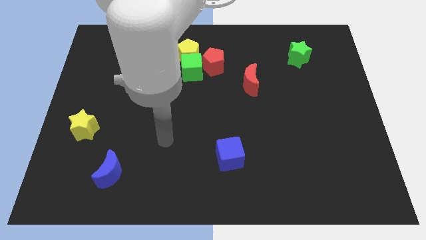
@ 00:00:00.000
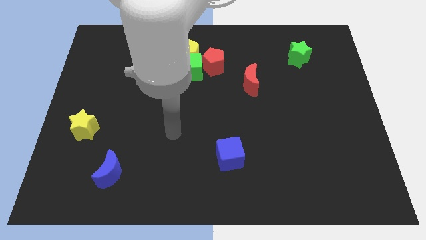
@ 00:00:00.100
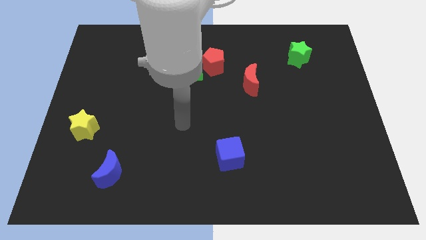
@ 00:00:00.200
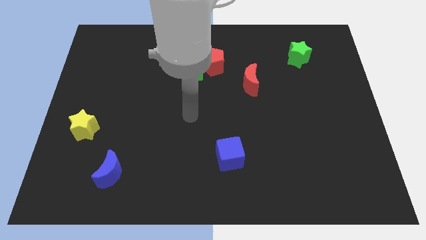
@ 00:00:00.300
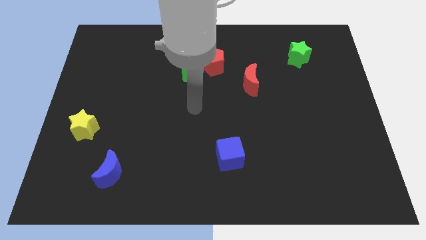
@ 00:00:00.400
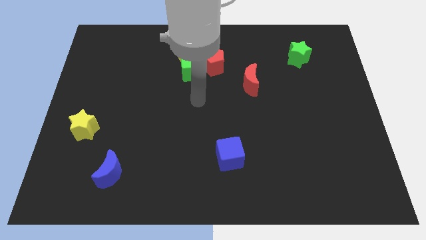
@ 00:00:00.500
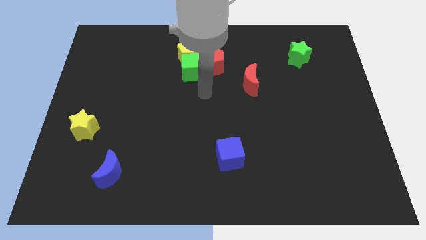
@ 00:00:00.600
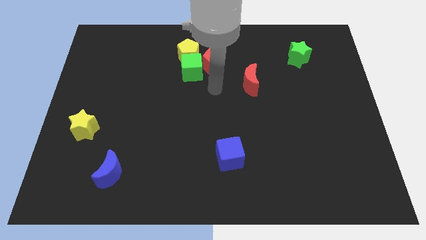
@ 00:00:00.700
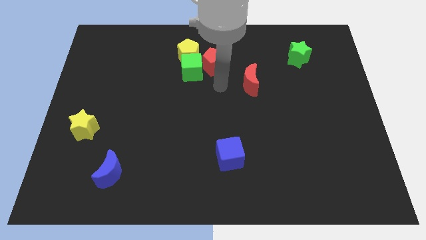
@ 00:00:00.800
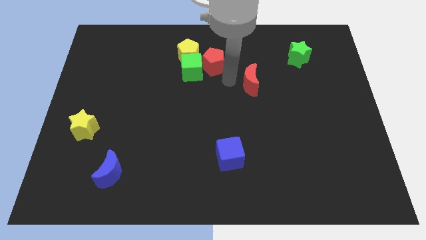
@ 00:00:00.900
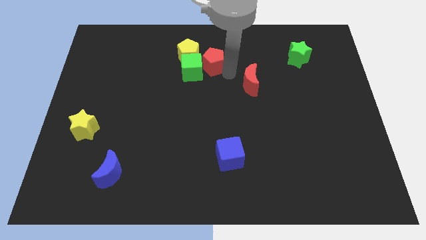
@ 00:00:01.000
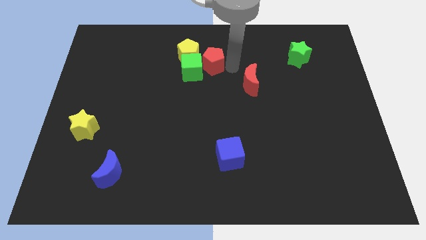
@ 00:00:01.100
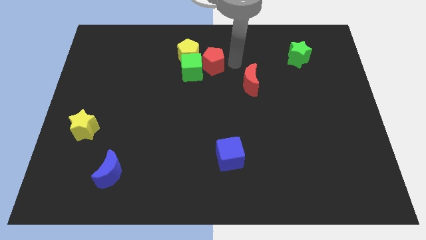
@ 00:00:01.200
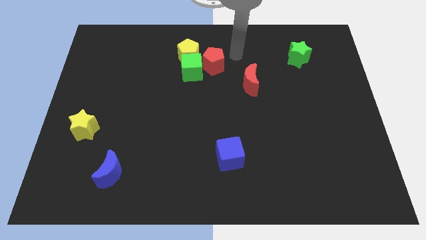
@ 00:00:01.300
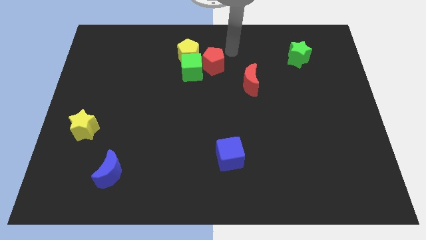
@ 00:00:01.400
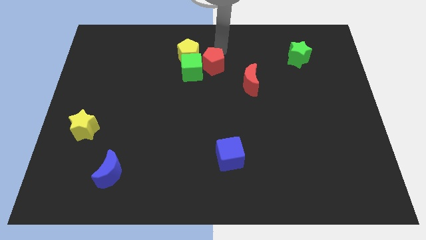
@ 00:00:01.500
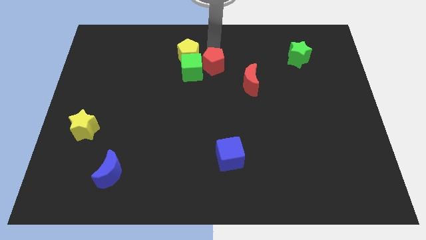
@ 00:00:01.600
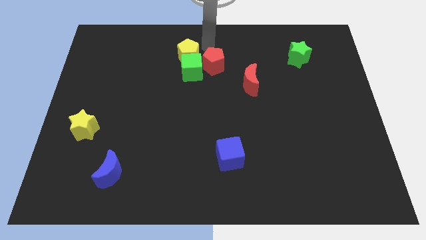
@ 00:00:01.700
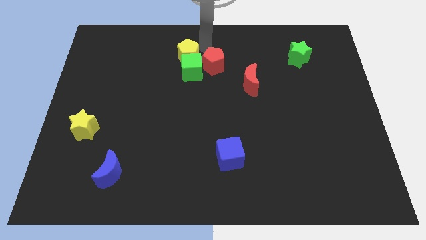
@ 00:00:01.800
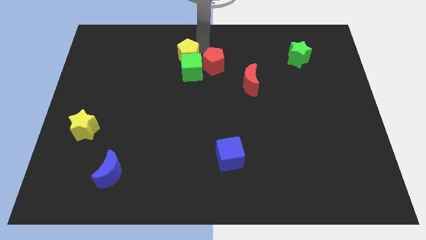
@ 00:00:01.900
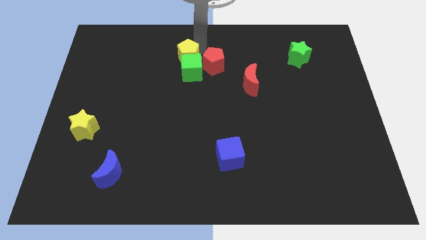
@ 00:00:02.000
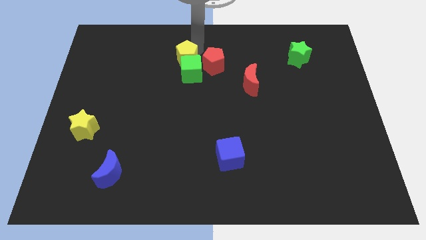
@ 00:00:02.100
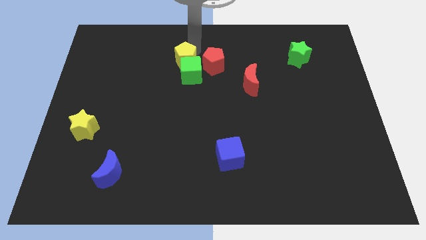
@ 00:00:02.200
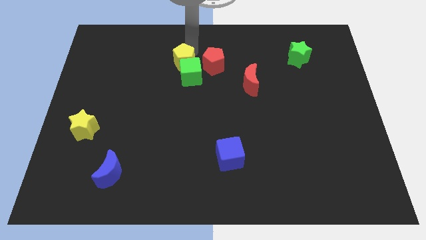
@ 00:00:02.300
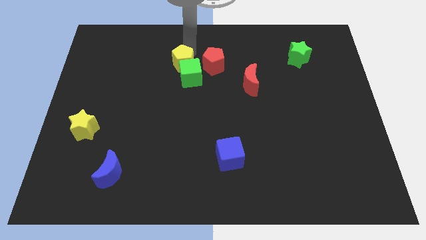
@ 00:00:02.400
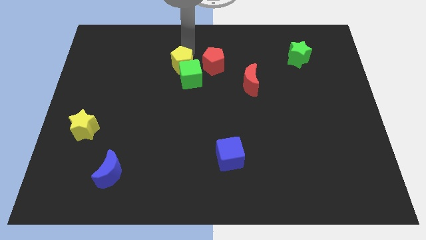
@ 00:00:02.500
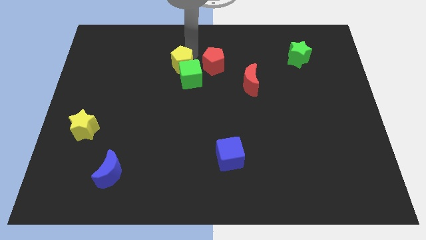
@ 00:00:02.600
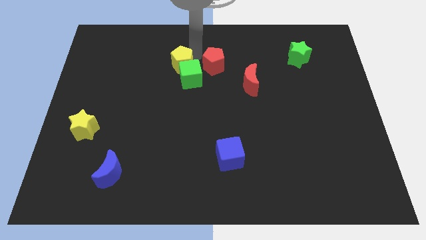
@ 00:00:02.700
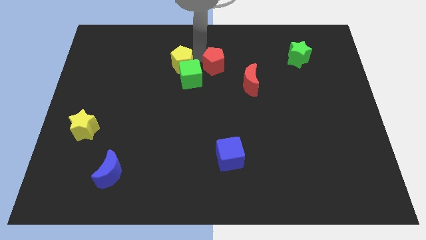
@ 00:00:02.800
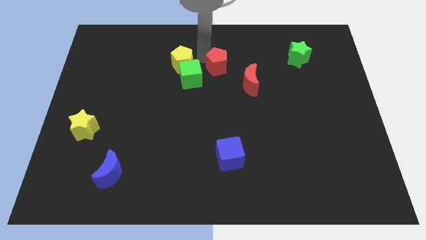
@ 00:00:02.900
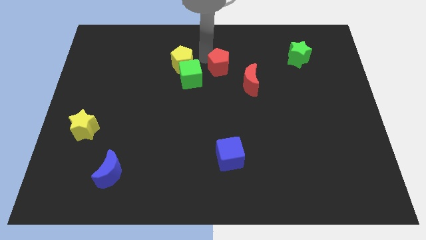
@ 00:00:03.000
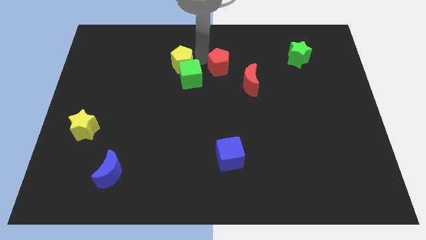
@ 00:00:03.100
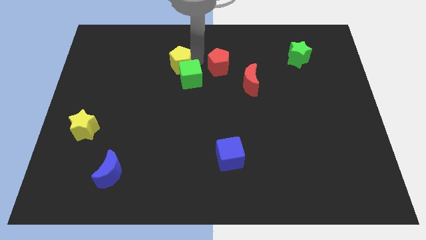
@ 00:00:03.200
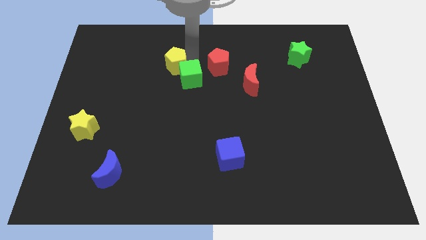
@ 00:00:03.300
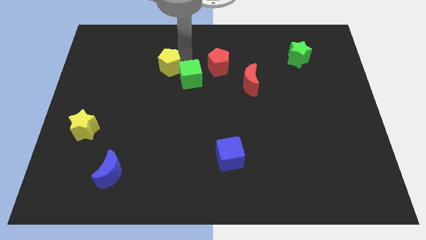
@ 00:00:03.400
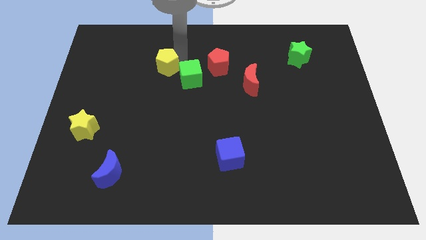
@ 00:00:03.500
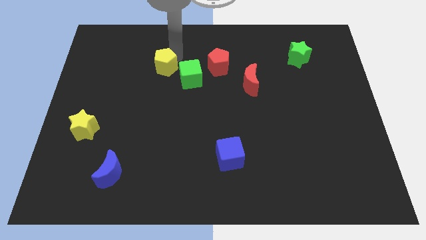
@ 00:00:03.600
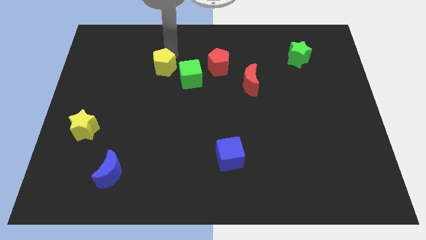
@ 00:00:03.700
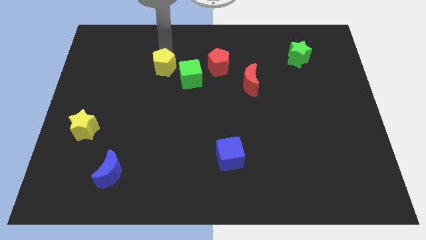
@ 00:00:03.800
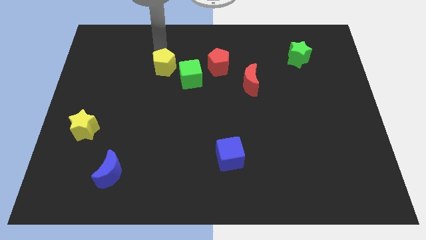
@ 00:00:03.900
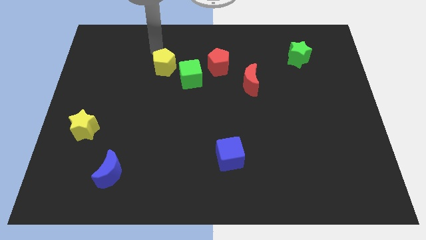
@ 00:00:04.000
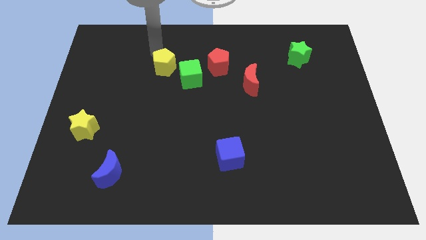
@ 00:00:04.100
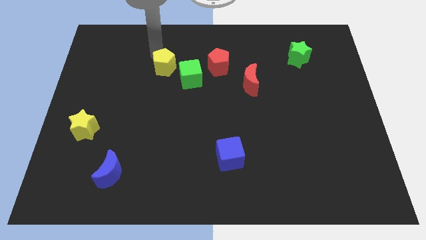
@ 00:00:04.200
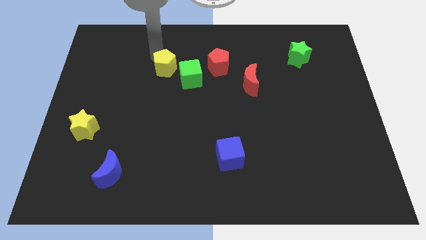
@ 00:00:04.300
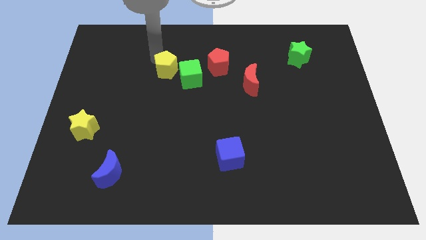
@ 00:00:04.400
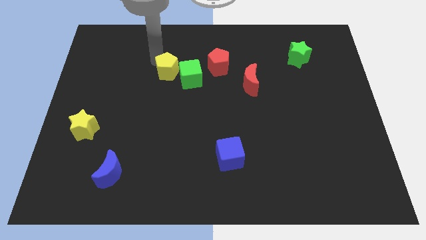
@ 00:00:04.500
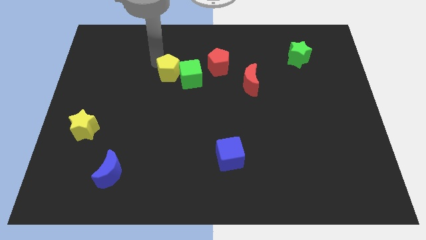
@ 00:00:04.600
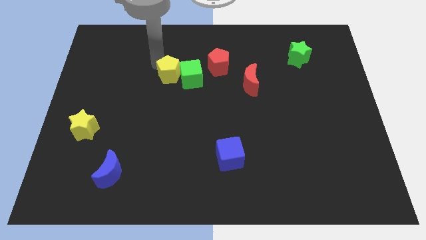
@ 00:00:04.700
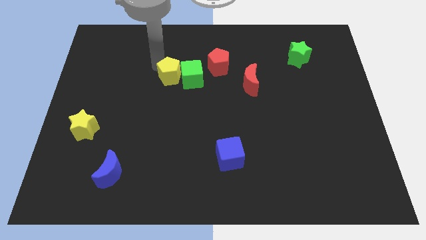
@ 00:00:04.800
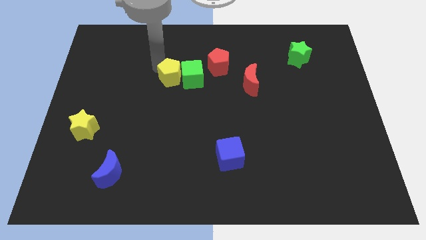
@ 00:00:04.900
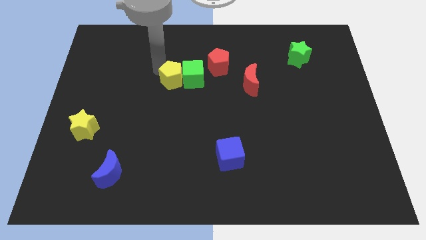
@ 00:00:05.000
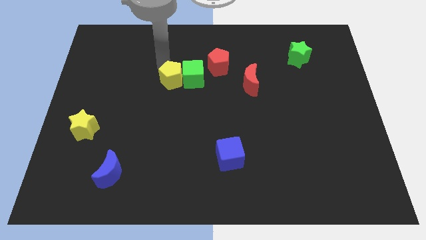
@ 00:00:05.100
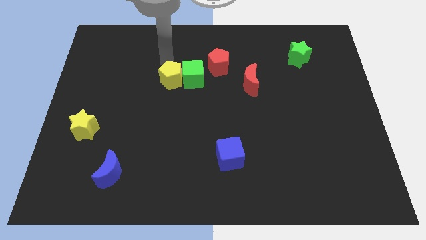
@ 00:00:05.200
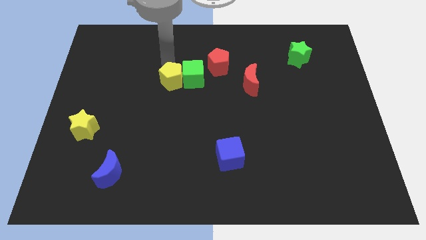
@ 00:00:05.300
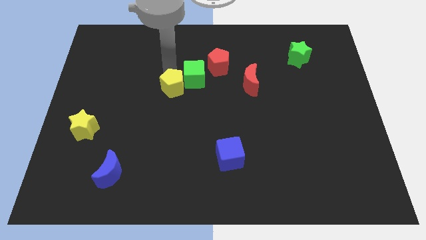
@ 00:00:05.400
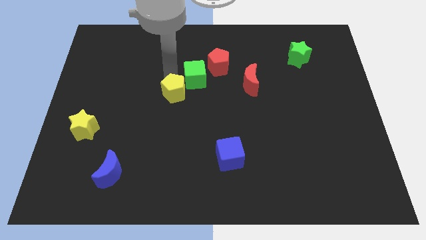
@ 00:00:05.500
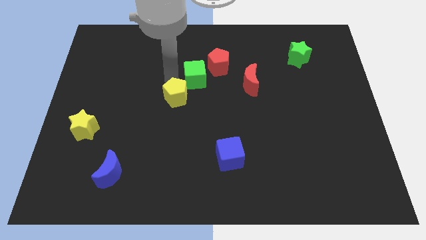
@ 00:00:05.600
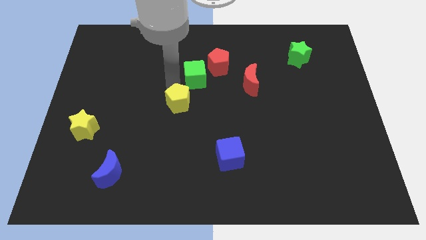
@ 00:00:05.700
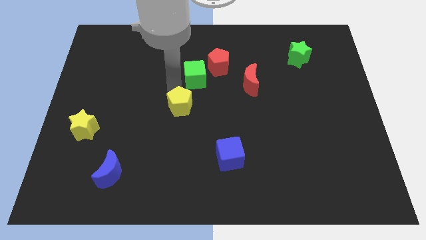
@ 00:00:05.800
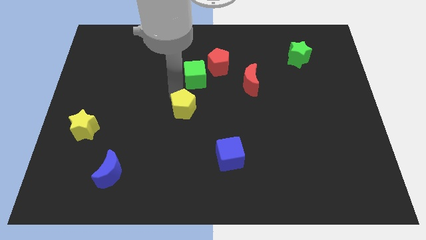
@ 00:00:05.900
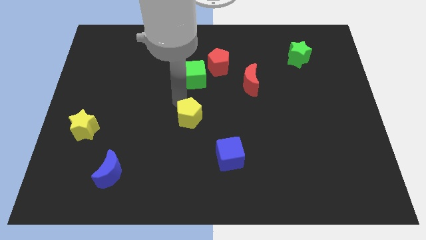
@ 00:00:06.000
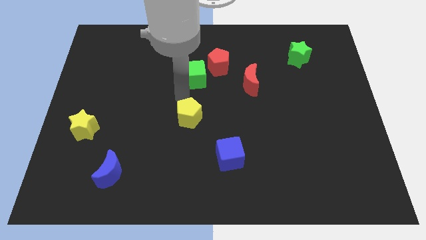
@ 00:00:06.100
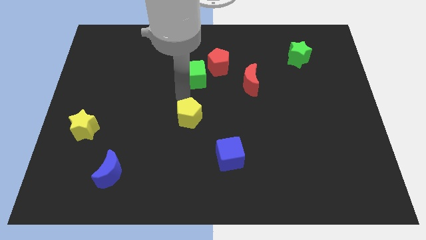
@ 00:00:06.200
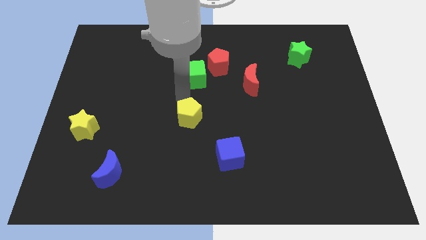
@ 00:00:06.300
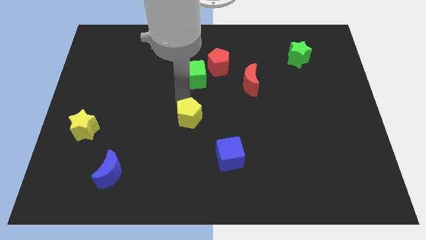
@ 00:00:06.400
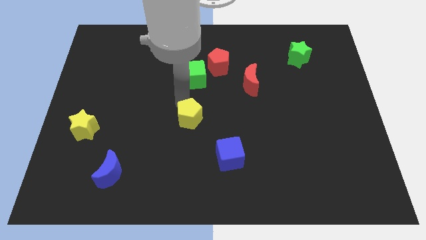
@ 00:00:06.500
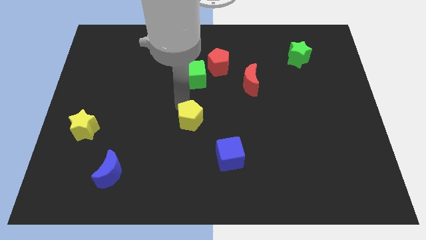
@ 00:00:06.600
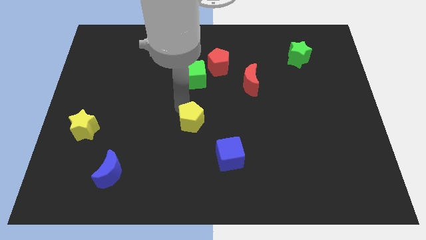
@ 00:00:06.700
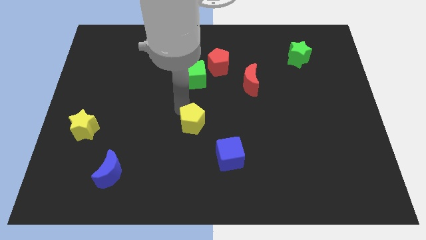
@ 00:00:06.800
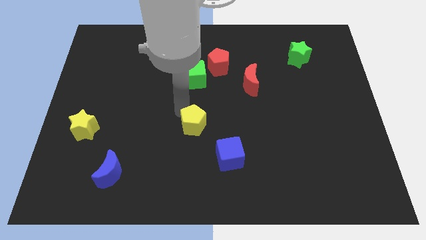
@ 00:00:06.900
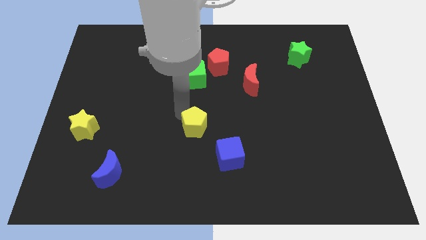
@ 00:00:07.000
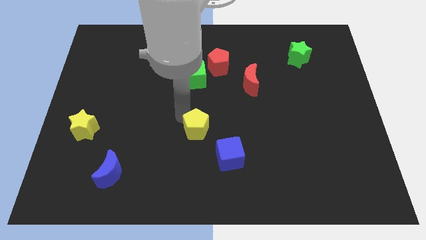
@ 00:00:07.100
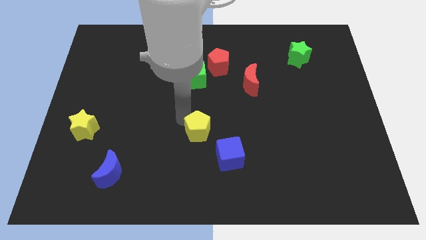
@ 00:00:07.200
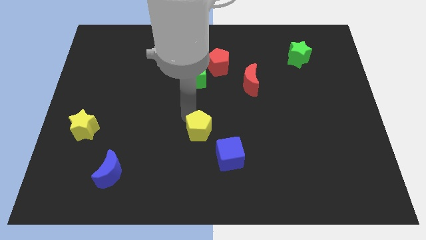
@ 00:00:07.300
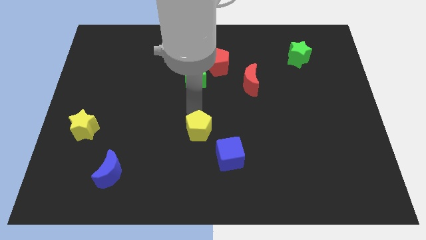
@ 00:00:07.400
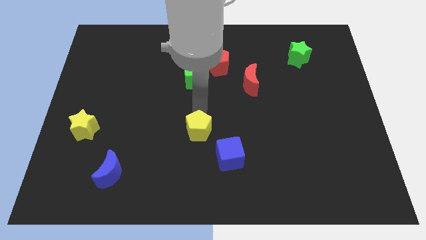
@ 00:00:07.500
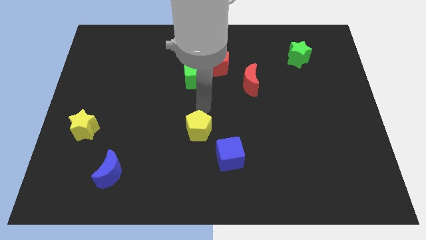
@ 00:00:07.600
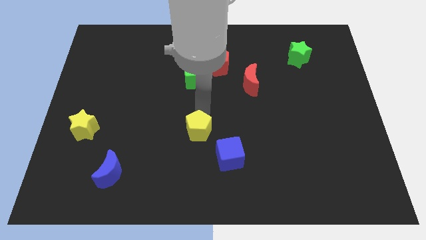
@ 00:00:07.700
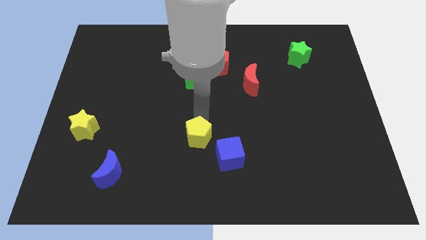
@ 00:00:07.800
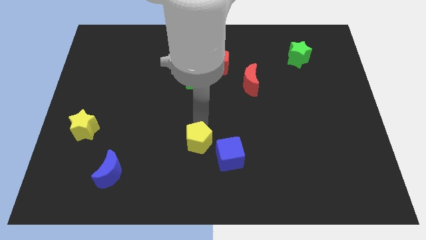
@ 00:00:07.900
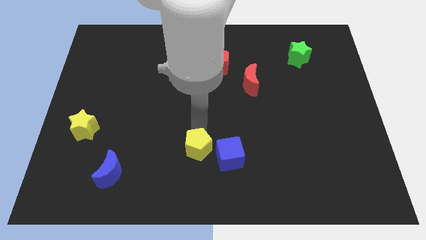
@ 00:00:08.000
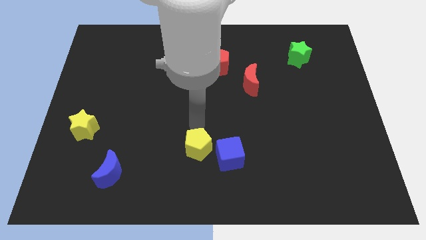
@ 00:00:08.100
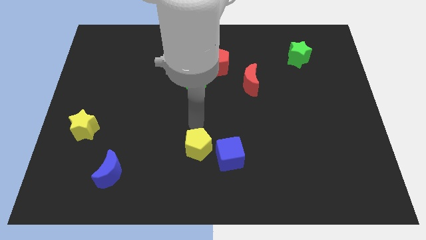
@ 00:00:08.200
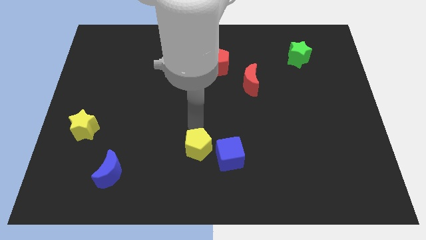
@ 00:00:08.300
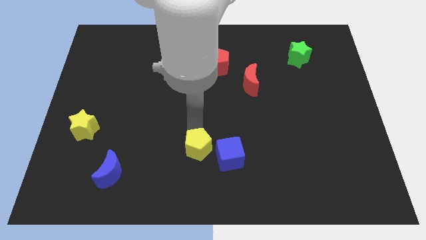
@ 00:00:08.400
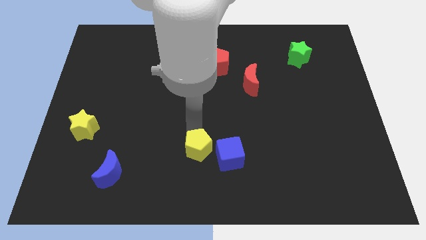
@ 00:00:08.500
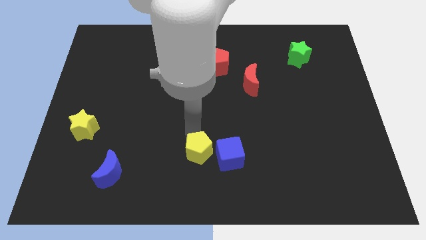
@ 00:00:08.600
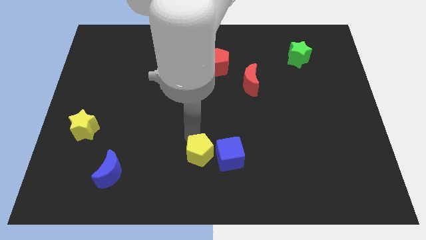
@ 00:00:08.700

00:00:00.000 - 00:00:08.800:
slide the yellow pentagon to the bottom side
